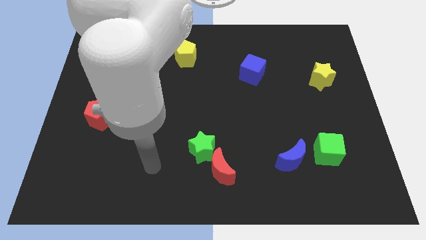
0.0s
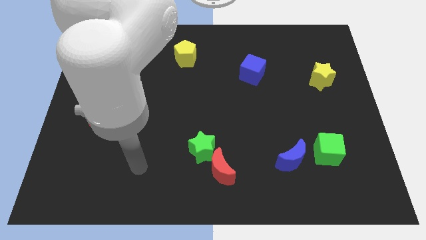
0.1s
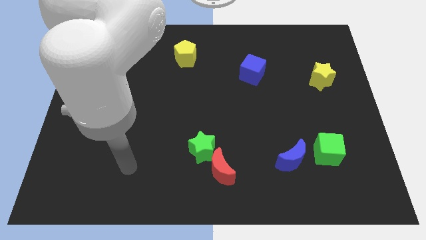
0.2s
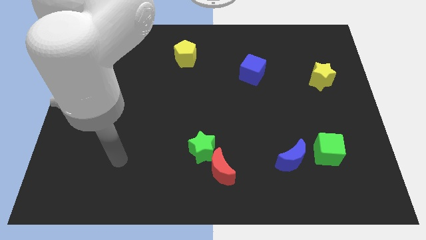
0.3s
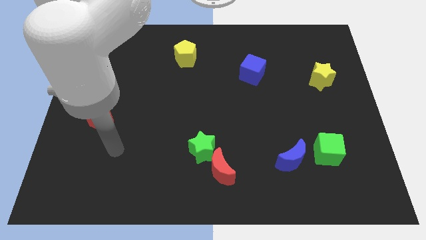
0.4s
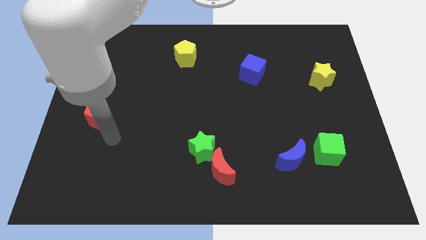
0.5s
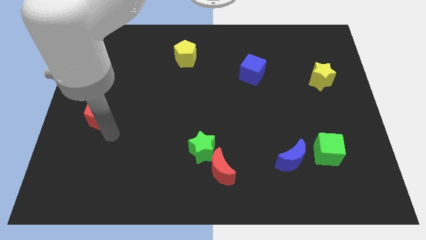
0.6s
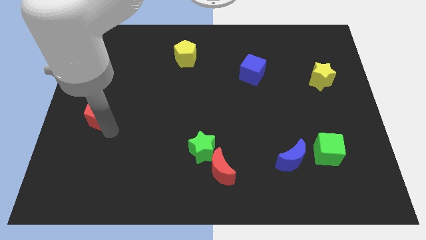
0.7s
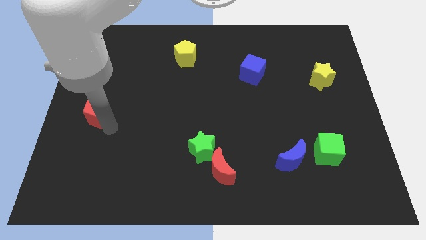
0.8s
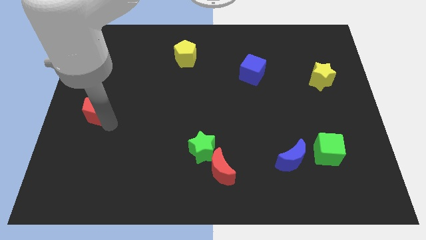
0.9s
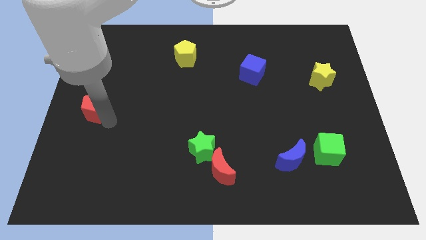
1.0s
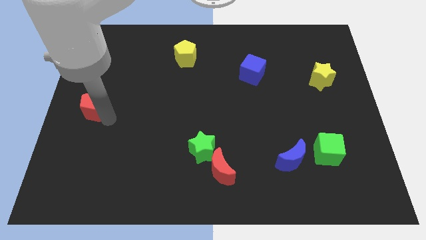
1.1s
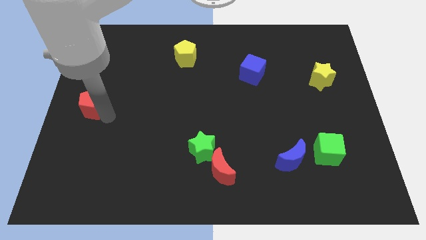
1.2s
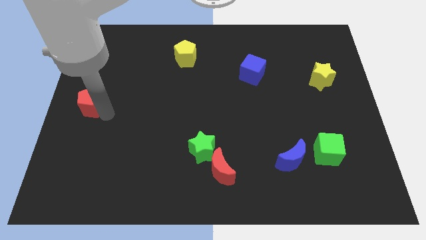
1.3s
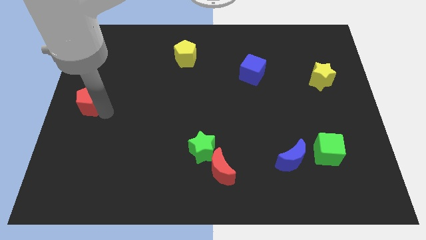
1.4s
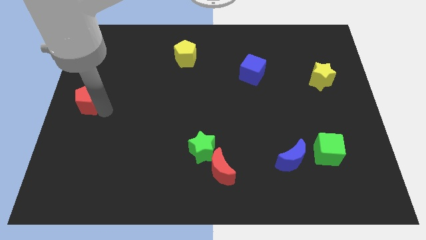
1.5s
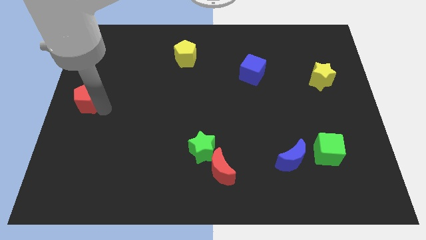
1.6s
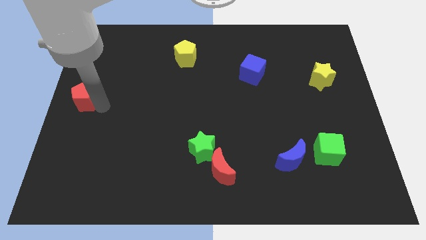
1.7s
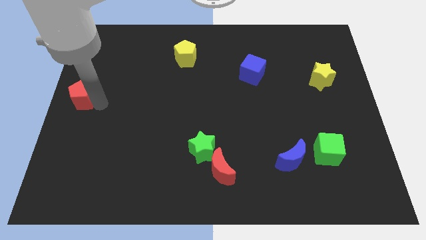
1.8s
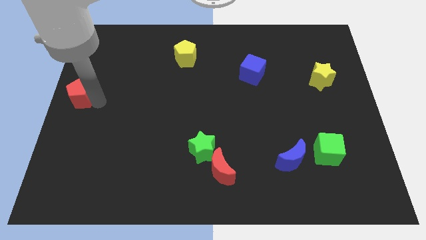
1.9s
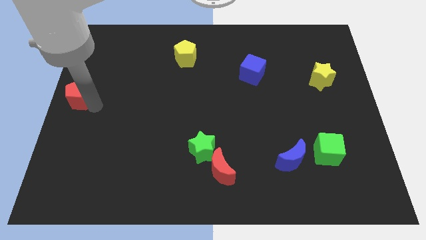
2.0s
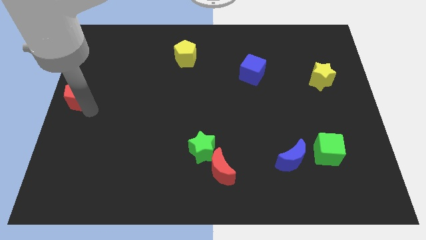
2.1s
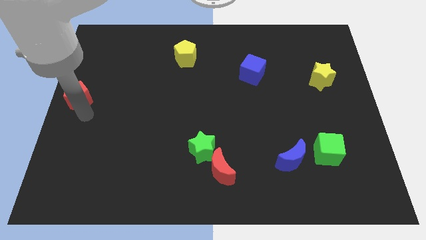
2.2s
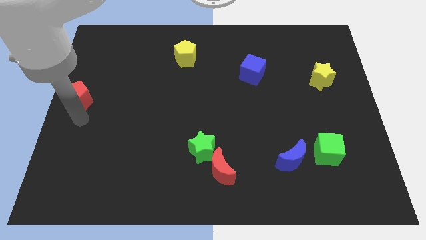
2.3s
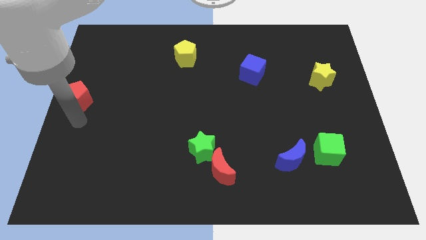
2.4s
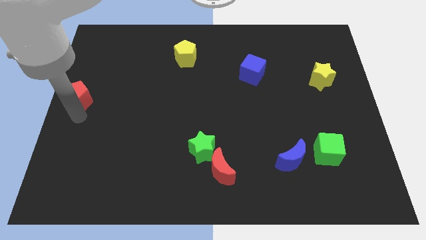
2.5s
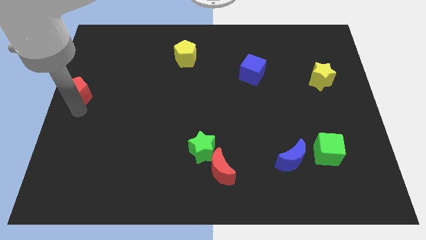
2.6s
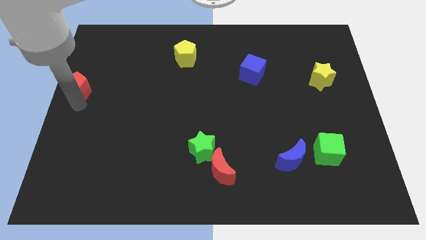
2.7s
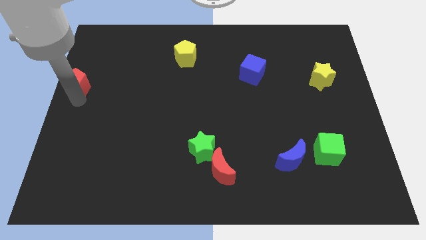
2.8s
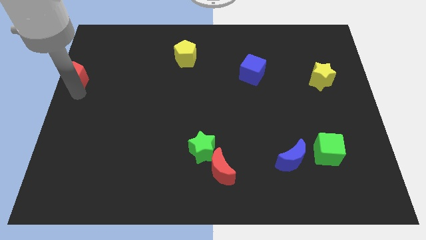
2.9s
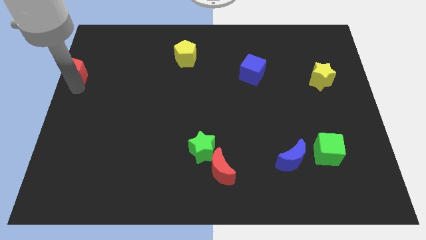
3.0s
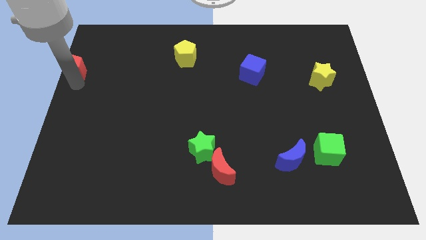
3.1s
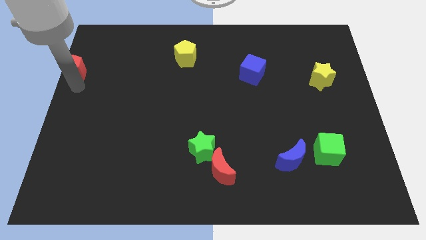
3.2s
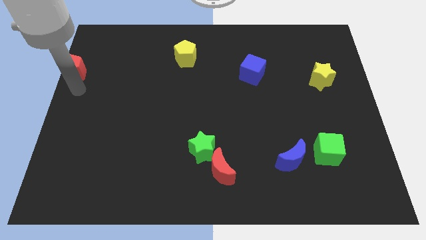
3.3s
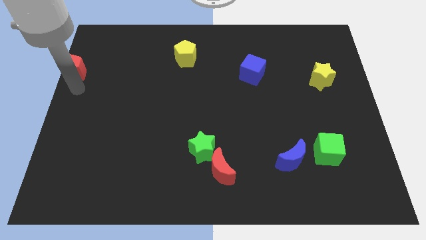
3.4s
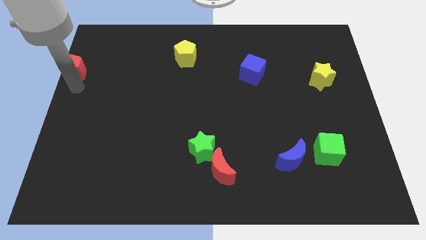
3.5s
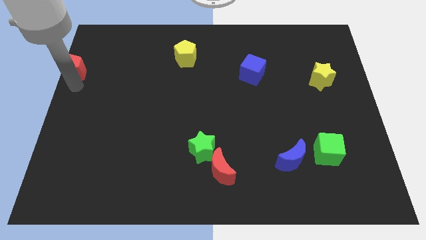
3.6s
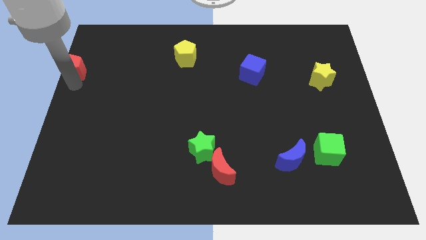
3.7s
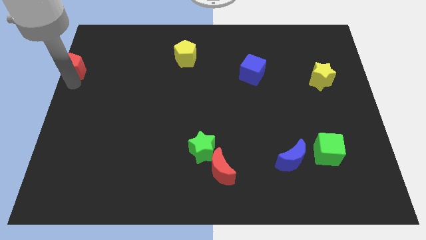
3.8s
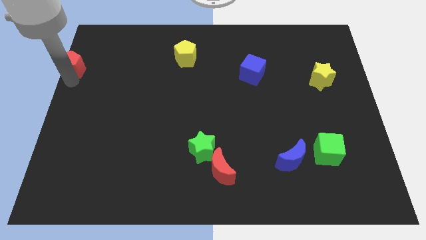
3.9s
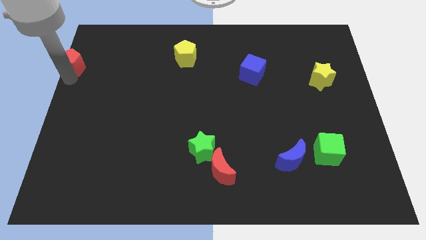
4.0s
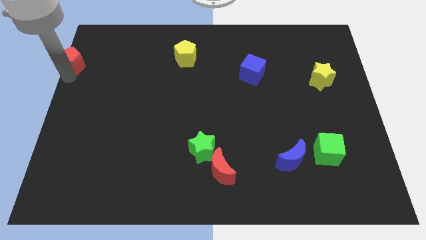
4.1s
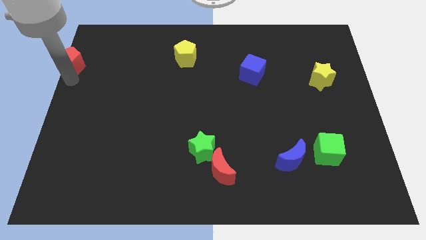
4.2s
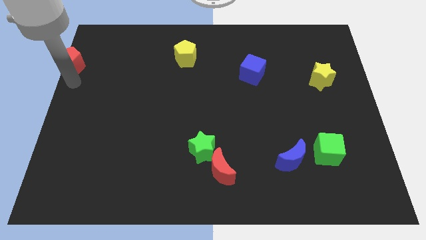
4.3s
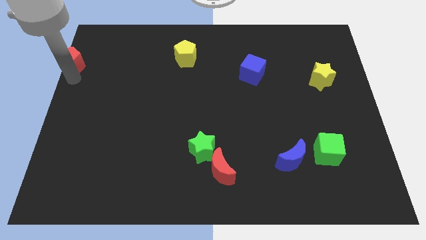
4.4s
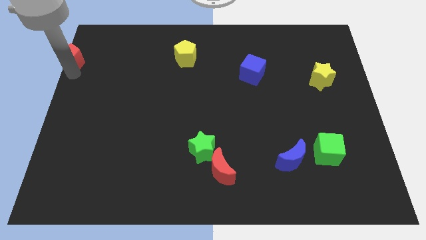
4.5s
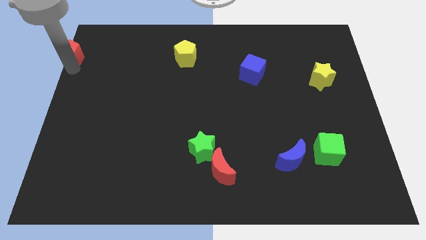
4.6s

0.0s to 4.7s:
put the red pentagon to the top left corner

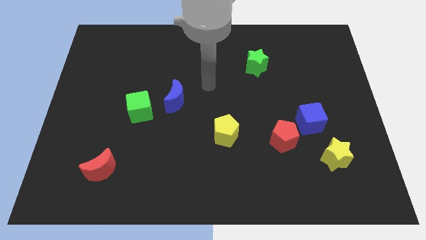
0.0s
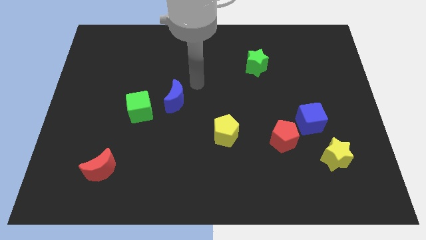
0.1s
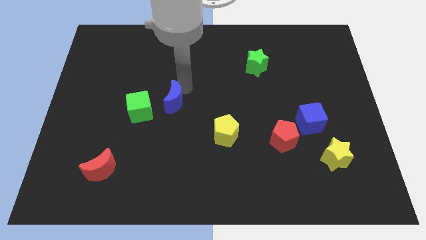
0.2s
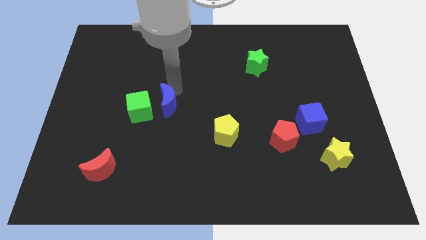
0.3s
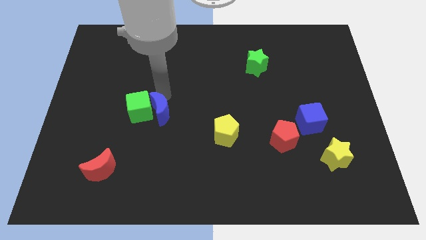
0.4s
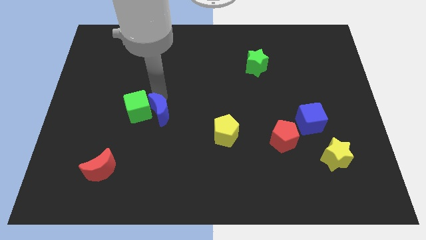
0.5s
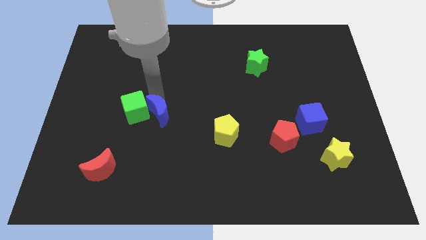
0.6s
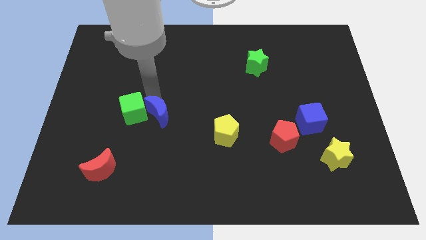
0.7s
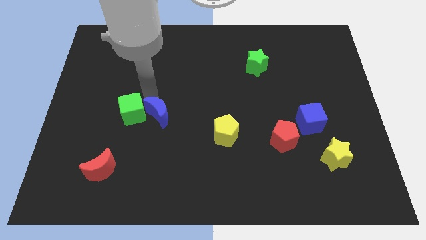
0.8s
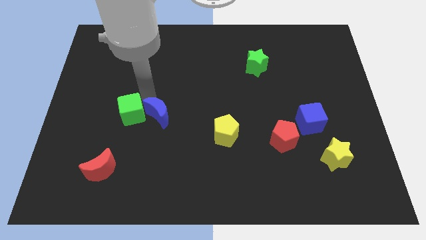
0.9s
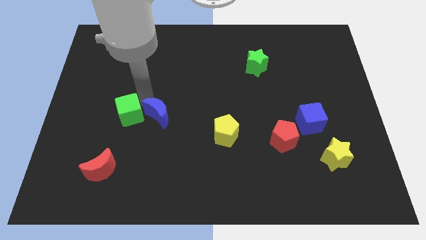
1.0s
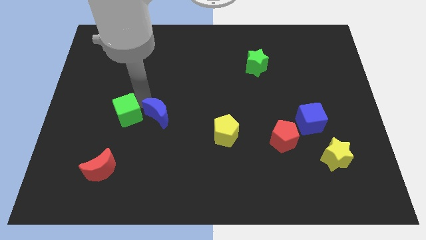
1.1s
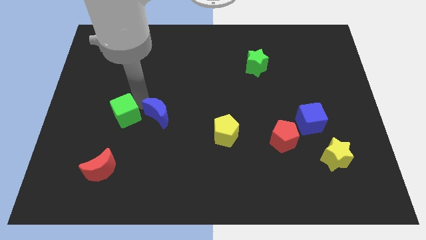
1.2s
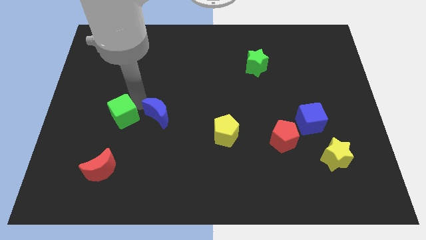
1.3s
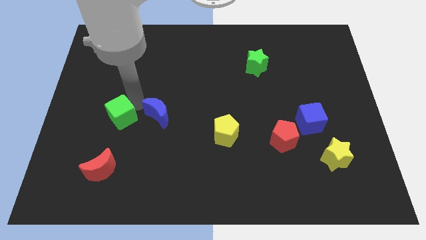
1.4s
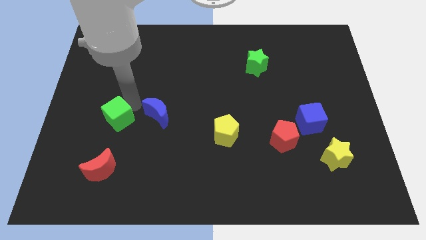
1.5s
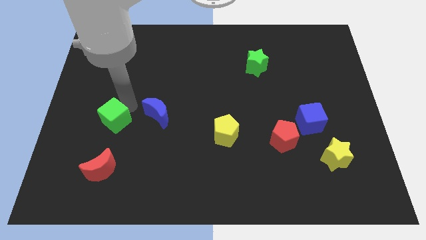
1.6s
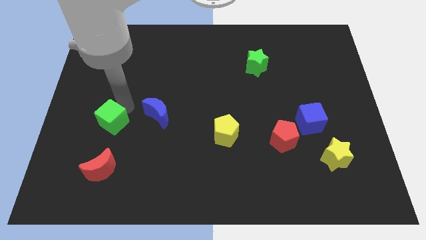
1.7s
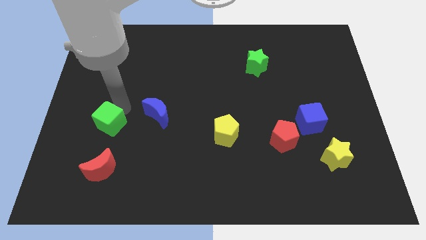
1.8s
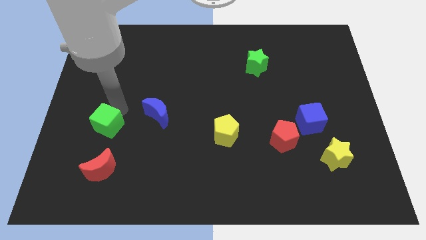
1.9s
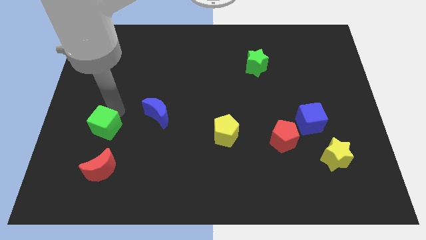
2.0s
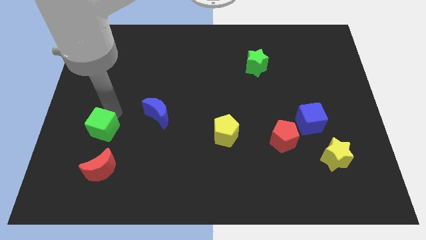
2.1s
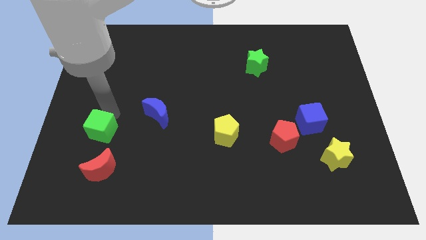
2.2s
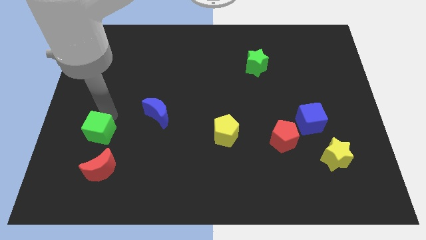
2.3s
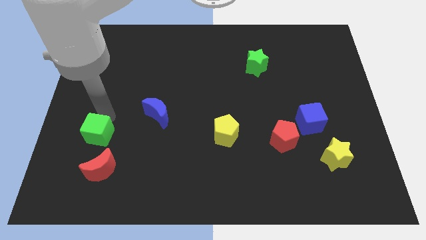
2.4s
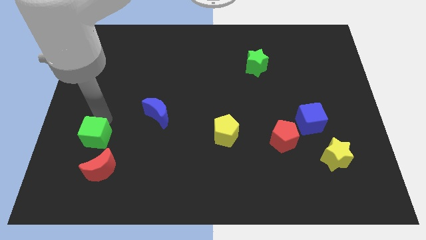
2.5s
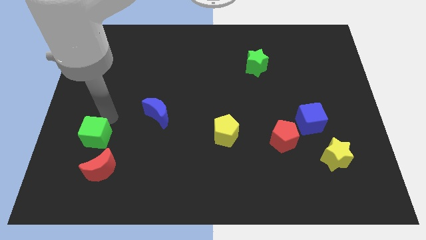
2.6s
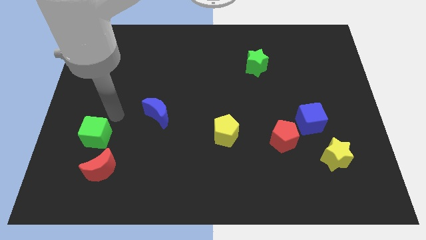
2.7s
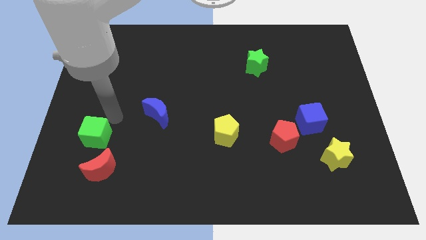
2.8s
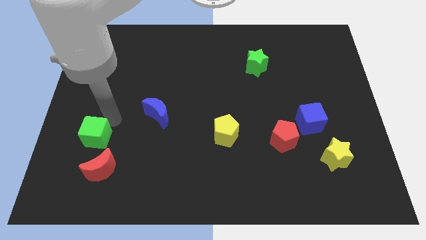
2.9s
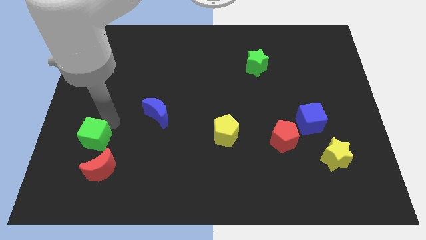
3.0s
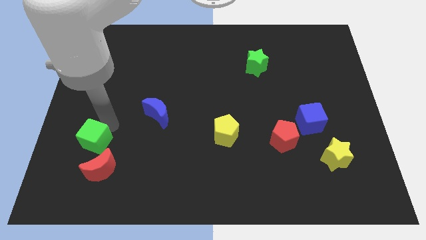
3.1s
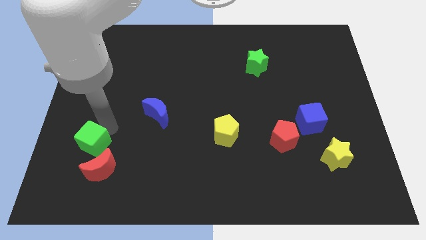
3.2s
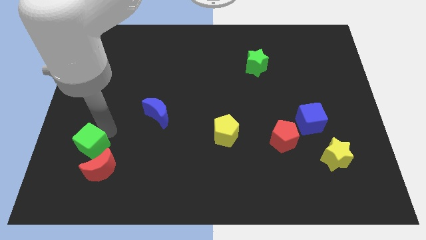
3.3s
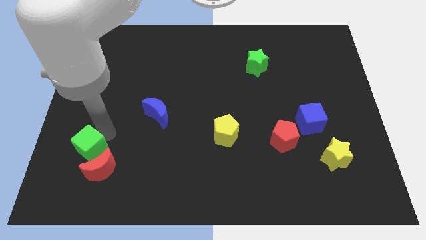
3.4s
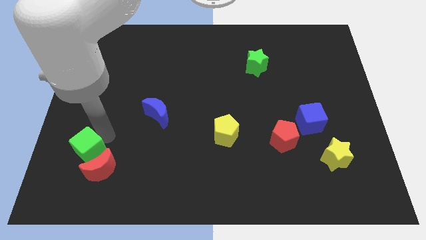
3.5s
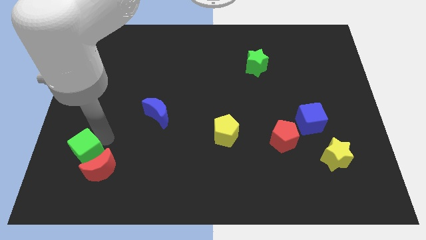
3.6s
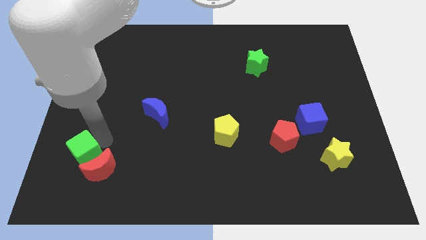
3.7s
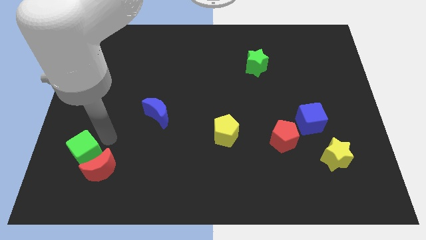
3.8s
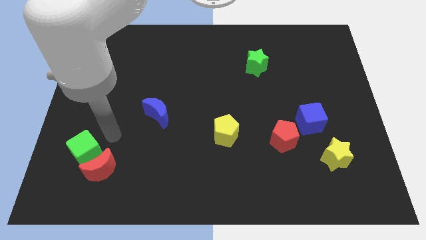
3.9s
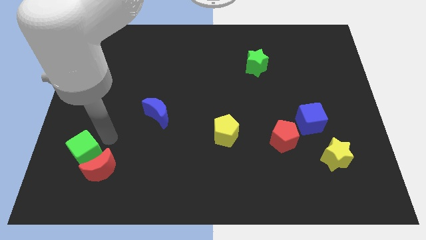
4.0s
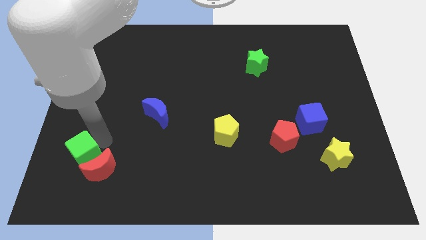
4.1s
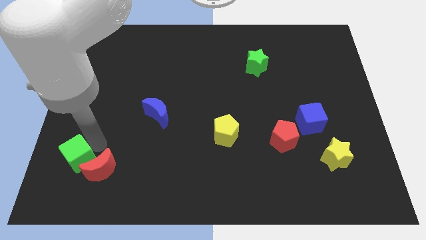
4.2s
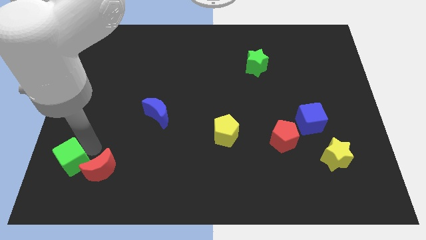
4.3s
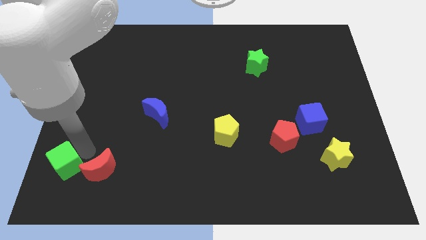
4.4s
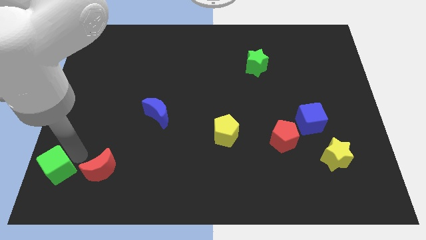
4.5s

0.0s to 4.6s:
slide the green cube to the bottom left corner
